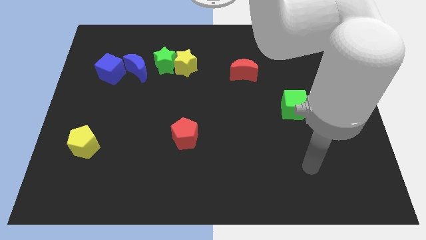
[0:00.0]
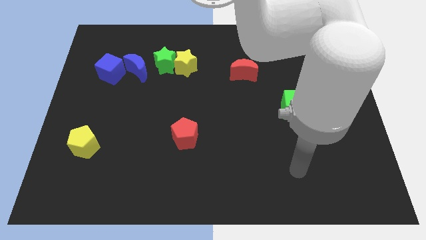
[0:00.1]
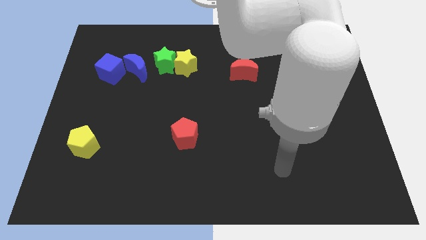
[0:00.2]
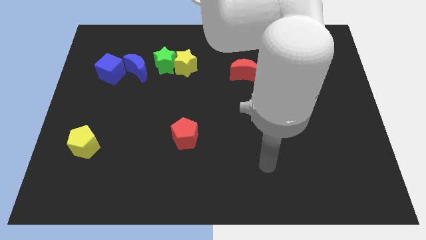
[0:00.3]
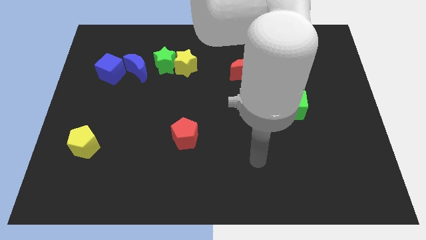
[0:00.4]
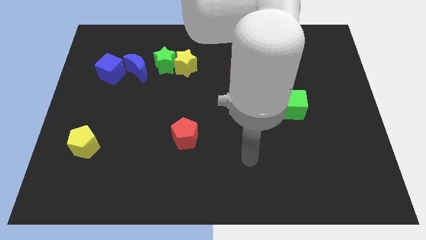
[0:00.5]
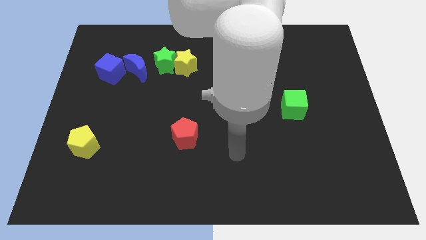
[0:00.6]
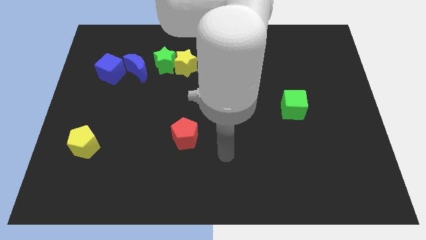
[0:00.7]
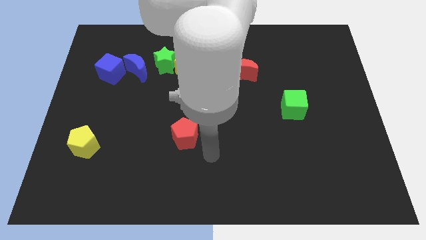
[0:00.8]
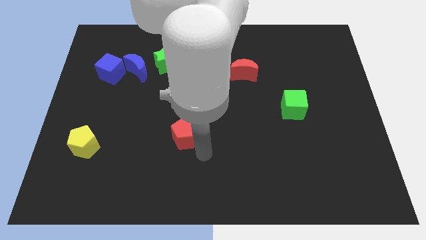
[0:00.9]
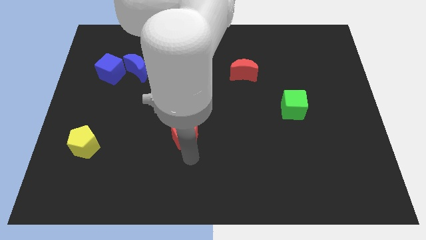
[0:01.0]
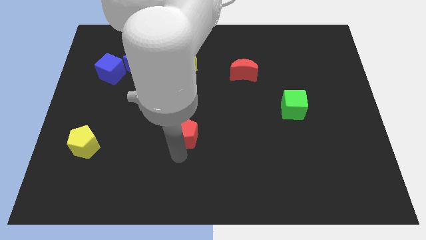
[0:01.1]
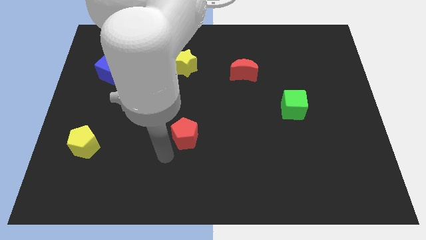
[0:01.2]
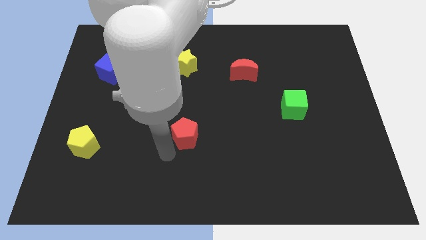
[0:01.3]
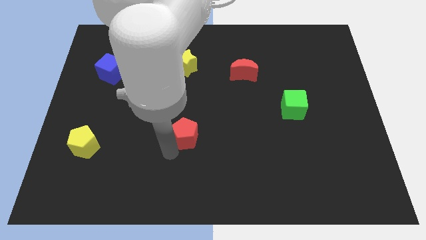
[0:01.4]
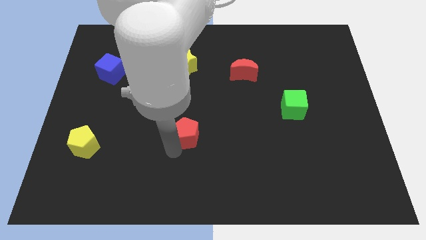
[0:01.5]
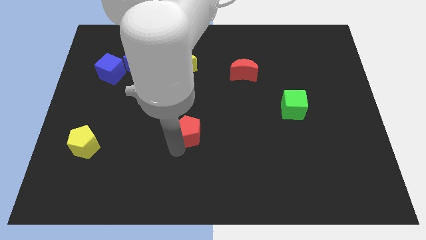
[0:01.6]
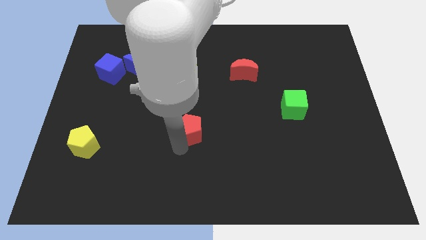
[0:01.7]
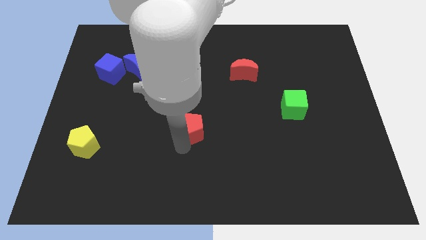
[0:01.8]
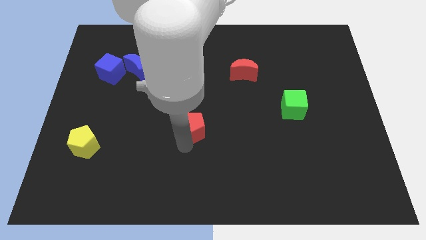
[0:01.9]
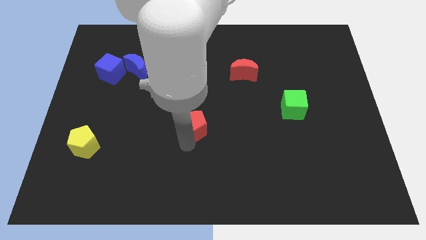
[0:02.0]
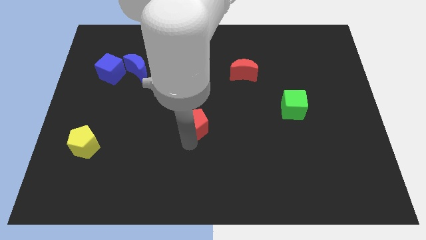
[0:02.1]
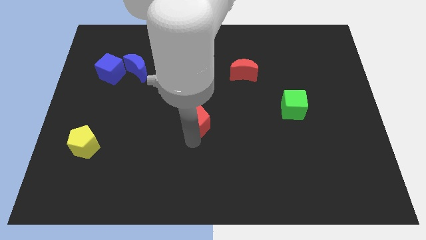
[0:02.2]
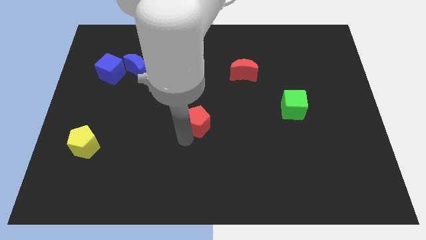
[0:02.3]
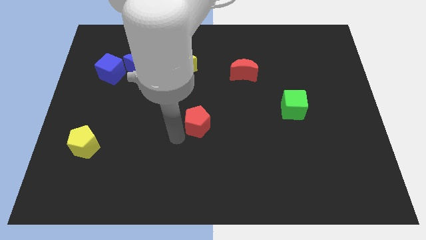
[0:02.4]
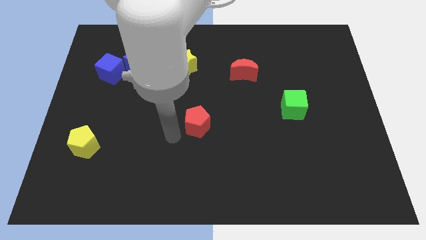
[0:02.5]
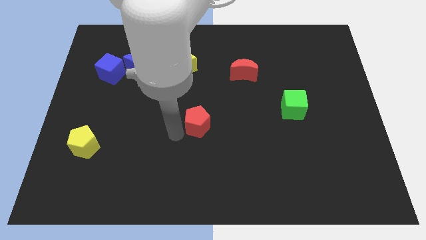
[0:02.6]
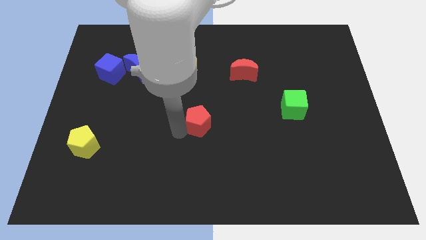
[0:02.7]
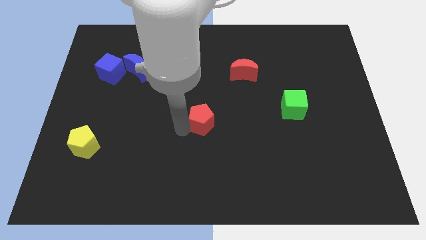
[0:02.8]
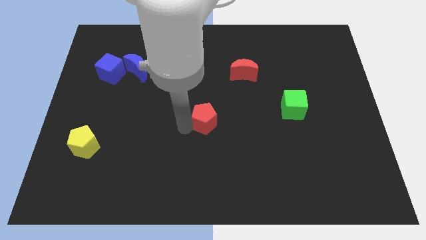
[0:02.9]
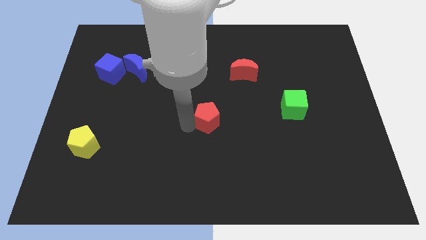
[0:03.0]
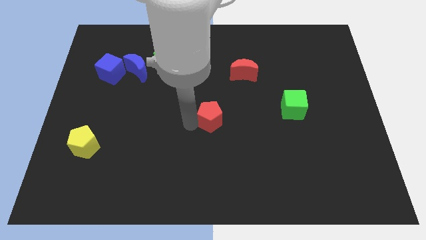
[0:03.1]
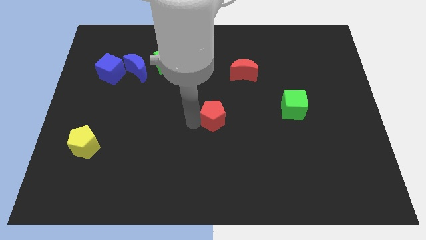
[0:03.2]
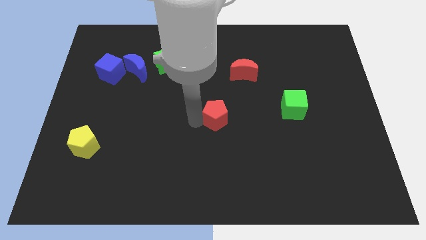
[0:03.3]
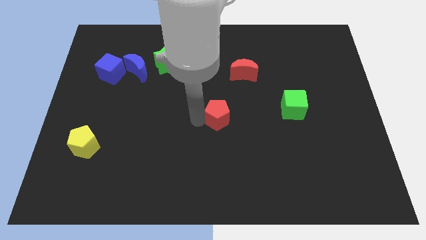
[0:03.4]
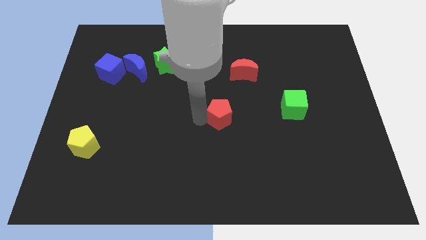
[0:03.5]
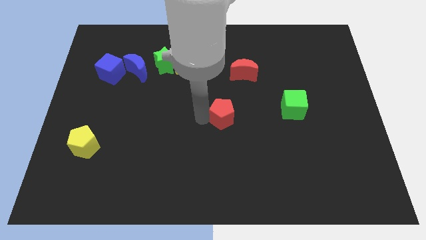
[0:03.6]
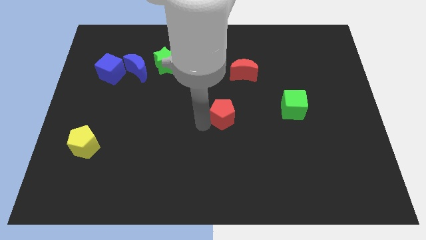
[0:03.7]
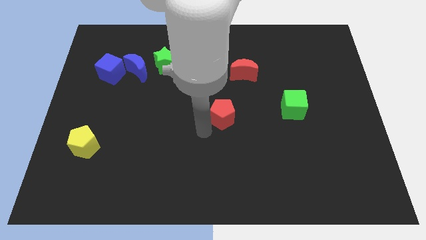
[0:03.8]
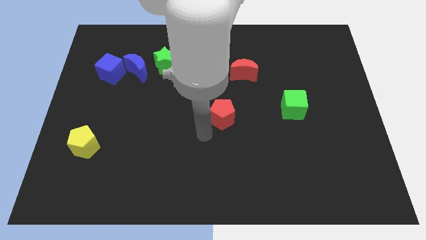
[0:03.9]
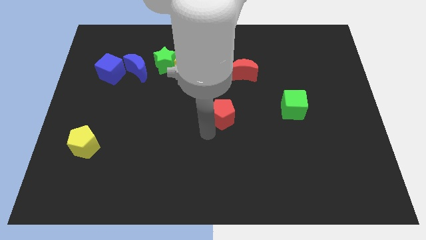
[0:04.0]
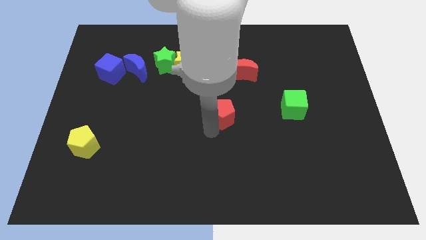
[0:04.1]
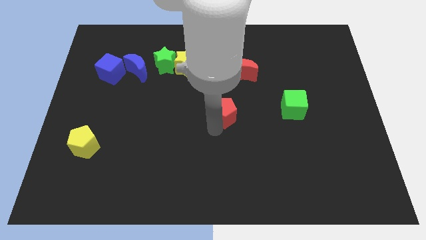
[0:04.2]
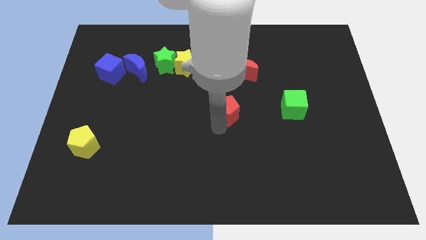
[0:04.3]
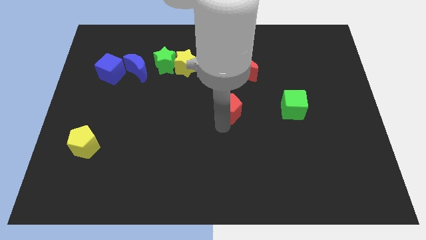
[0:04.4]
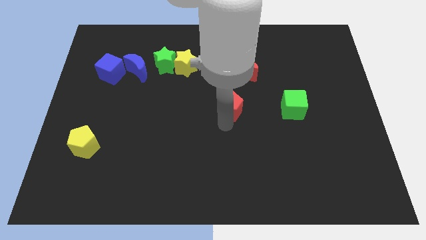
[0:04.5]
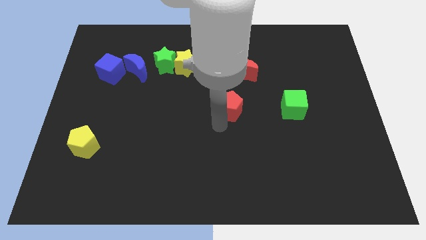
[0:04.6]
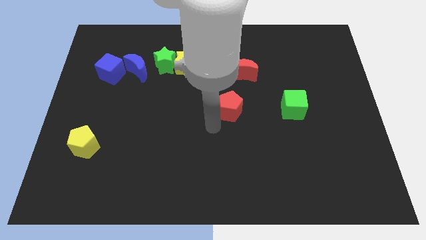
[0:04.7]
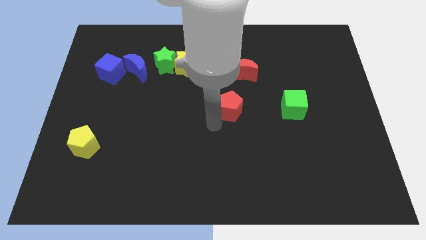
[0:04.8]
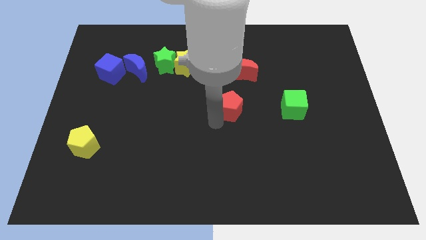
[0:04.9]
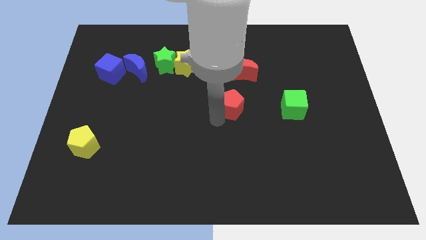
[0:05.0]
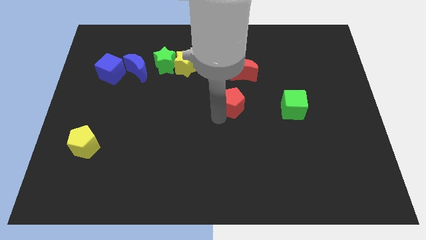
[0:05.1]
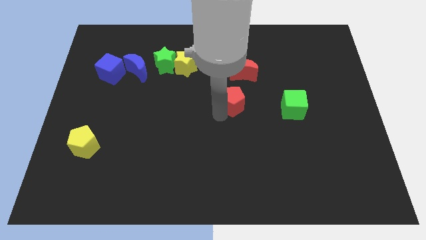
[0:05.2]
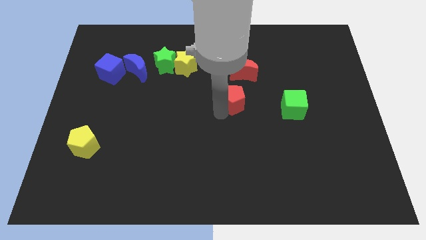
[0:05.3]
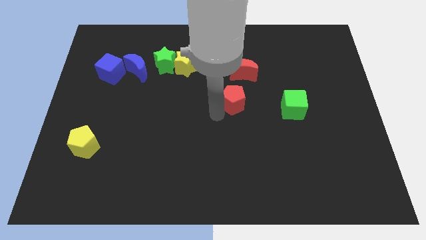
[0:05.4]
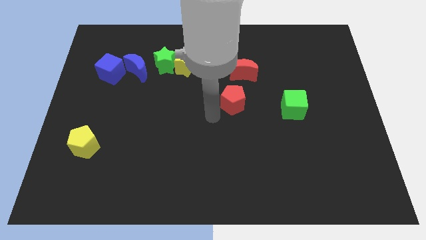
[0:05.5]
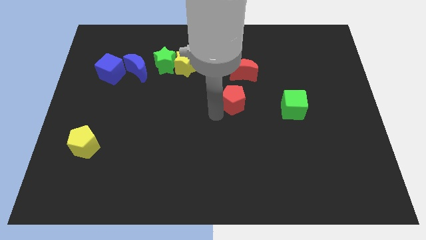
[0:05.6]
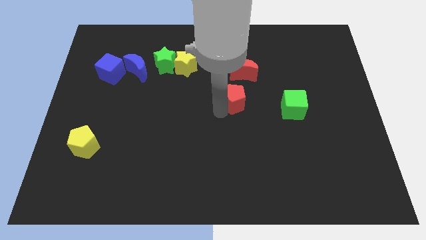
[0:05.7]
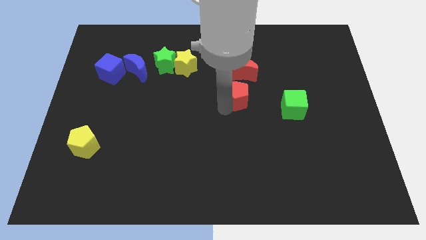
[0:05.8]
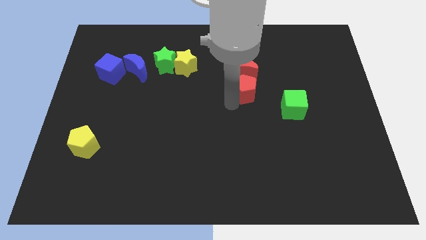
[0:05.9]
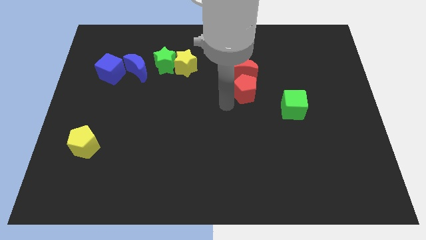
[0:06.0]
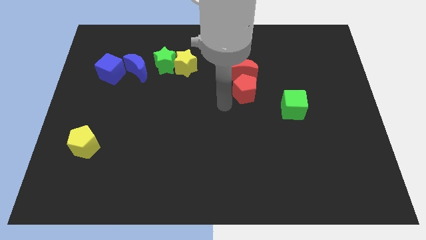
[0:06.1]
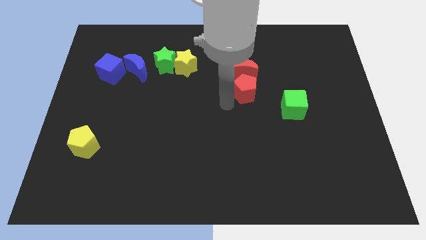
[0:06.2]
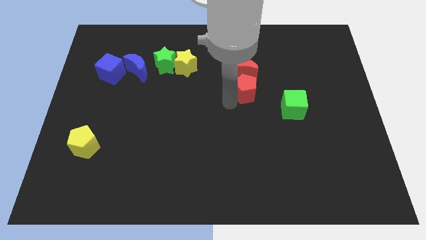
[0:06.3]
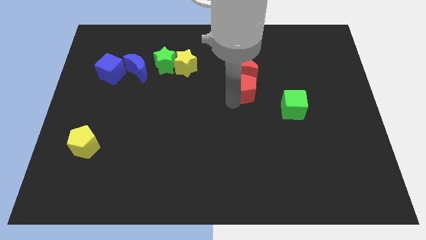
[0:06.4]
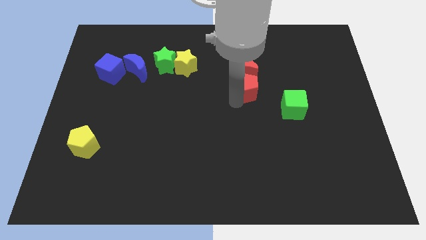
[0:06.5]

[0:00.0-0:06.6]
slide the red pentagon up and to the right

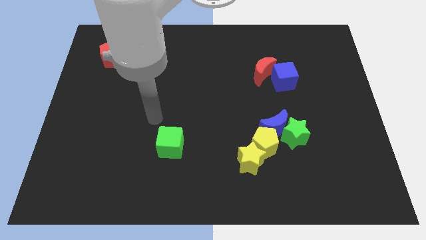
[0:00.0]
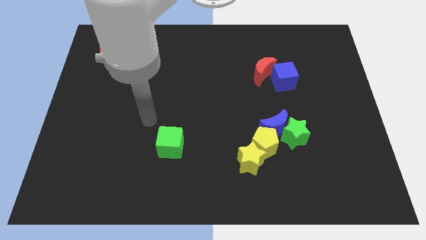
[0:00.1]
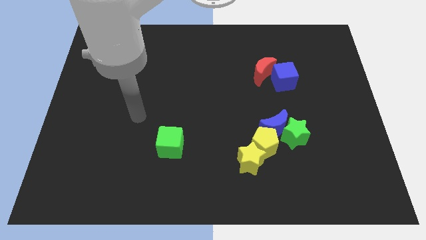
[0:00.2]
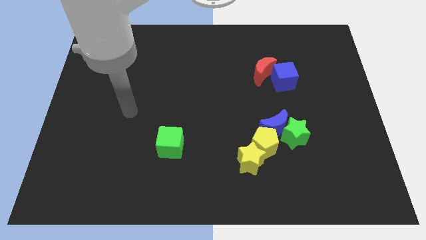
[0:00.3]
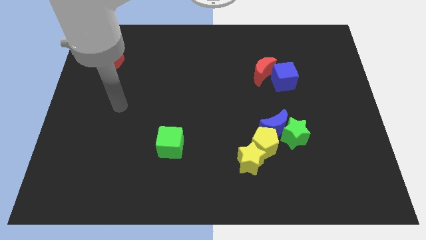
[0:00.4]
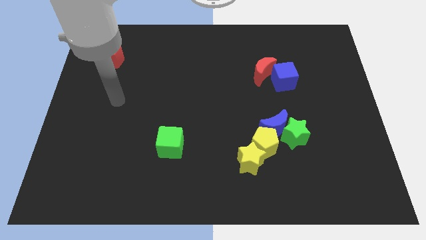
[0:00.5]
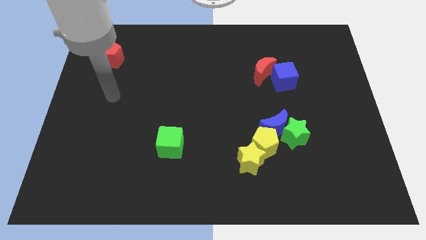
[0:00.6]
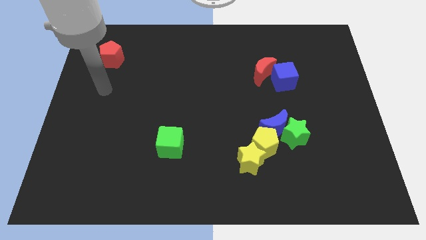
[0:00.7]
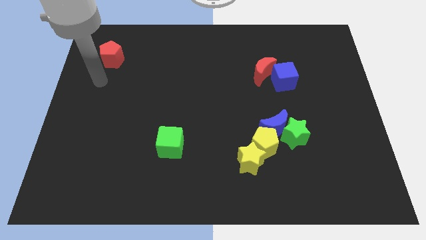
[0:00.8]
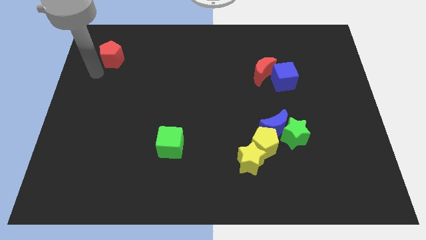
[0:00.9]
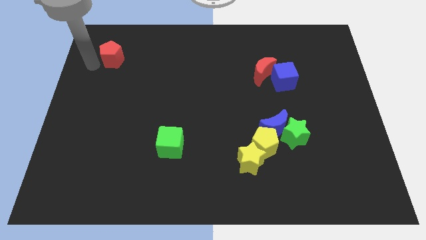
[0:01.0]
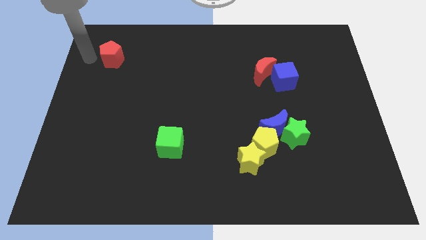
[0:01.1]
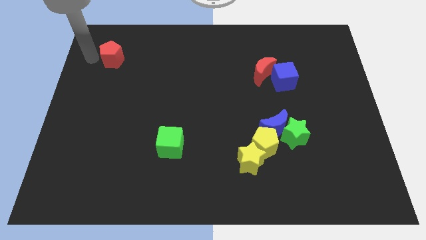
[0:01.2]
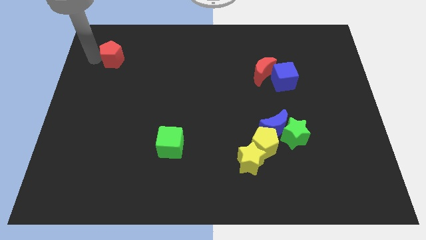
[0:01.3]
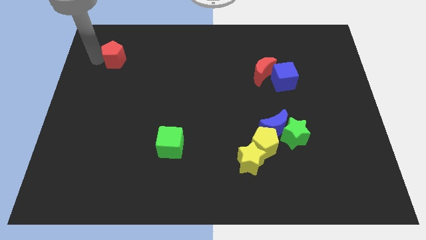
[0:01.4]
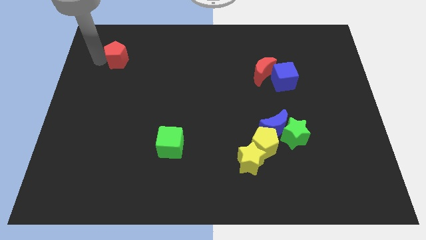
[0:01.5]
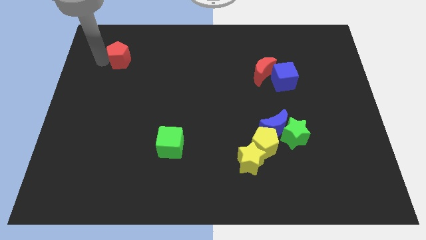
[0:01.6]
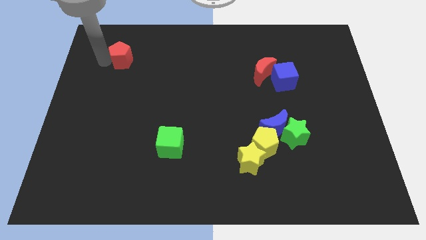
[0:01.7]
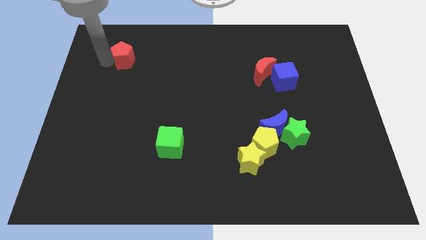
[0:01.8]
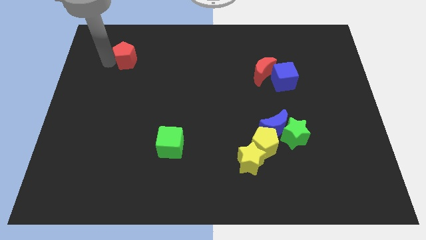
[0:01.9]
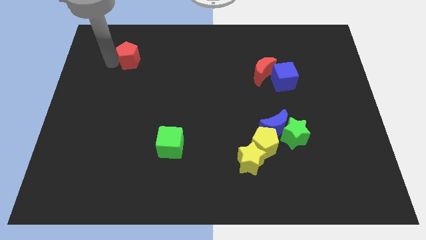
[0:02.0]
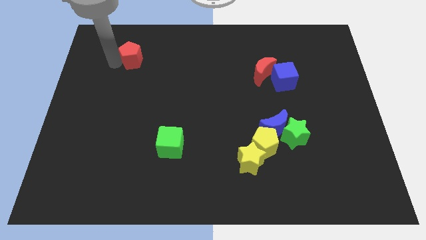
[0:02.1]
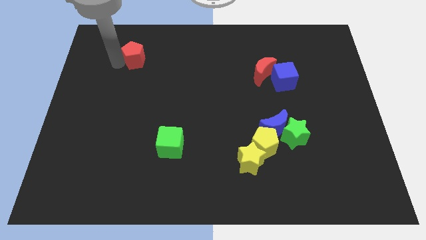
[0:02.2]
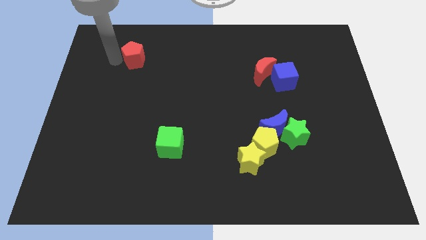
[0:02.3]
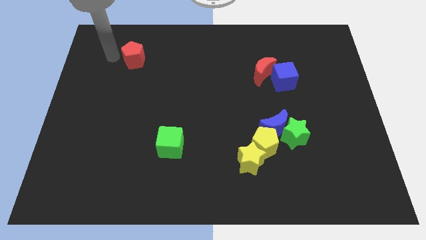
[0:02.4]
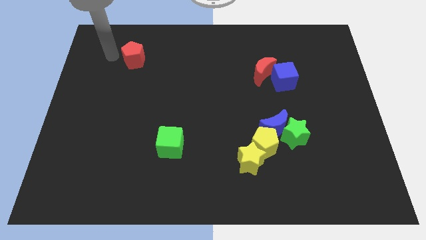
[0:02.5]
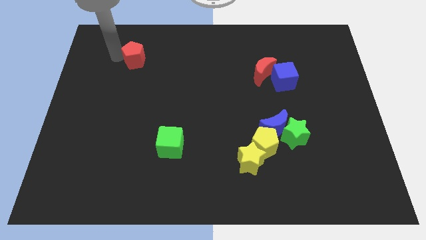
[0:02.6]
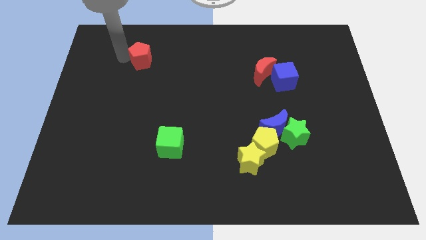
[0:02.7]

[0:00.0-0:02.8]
slightly push the red pentagon to the right
